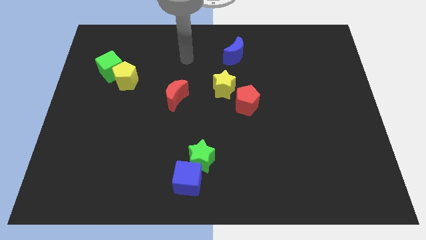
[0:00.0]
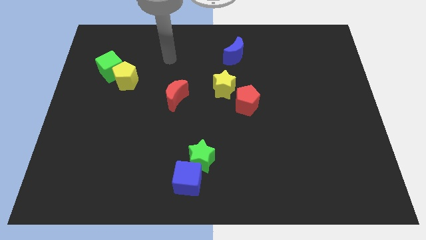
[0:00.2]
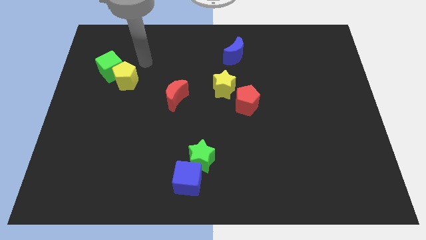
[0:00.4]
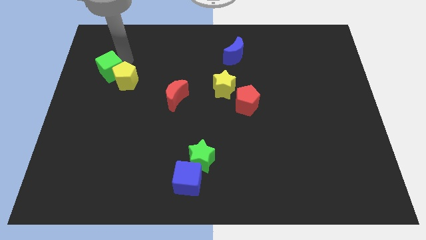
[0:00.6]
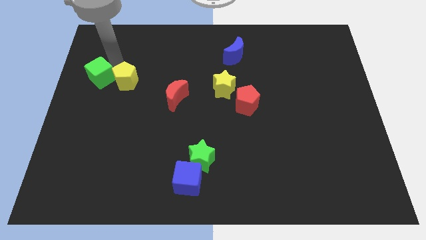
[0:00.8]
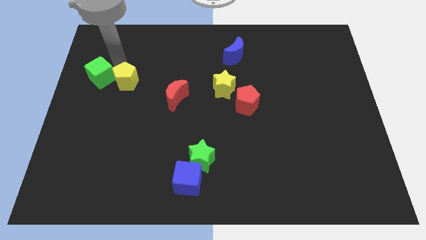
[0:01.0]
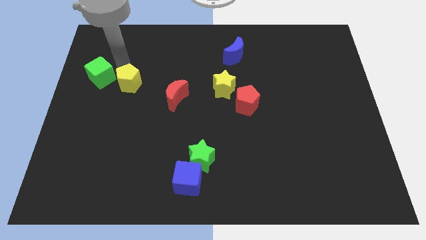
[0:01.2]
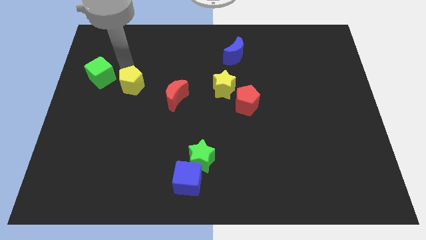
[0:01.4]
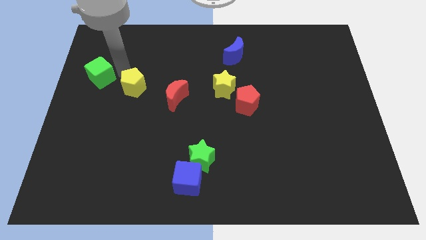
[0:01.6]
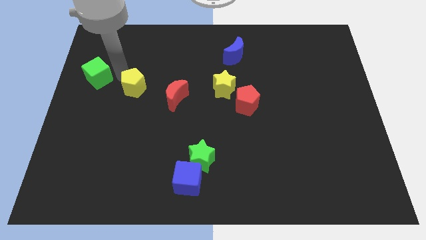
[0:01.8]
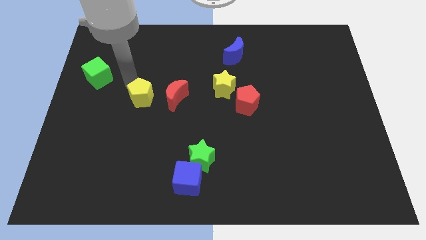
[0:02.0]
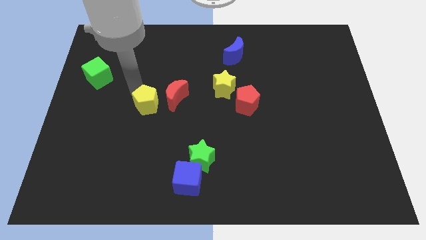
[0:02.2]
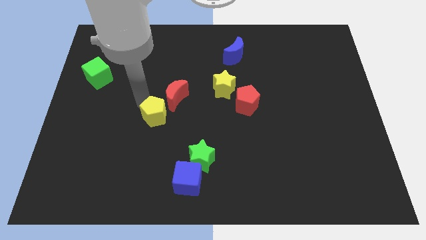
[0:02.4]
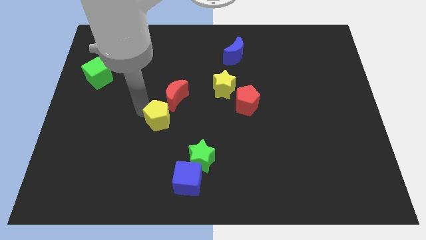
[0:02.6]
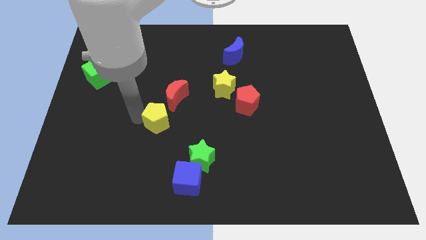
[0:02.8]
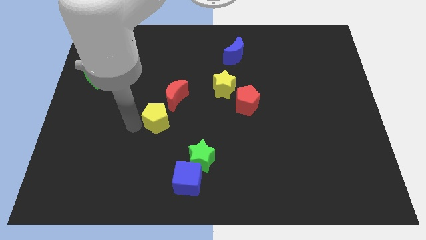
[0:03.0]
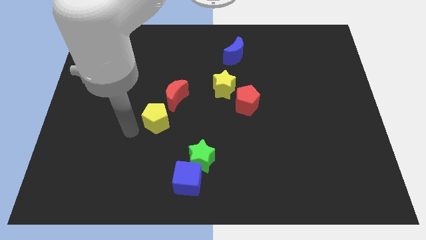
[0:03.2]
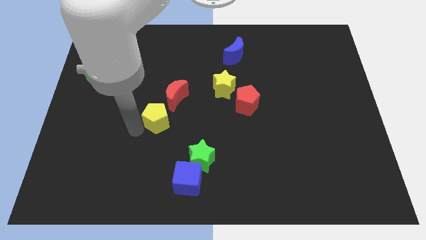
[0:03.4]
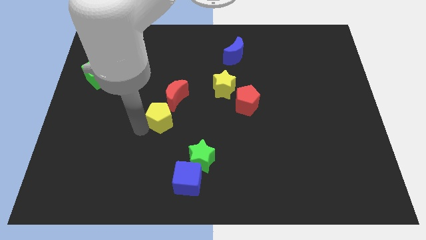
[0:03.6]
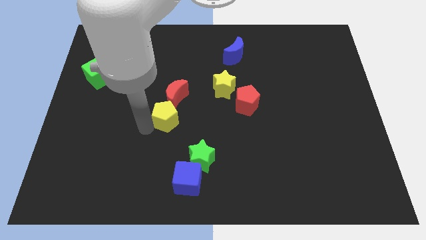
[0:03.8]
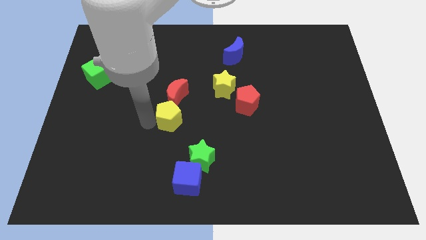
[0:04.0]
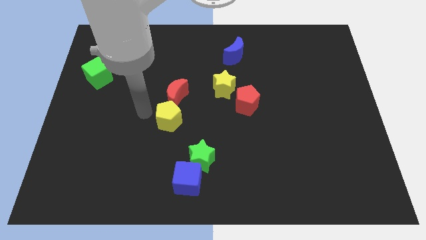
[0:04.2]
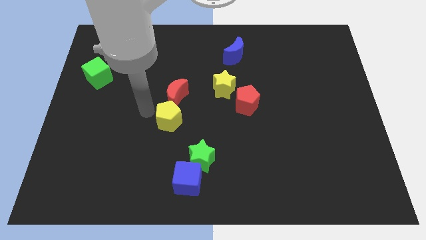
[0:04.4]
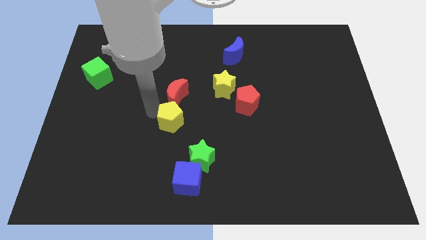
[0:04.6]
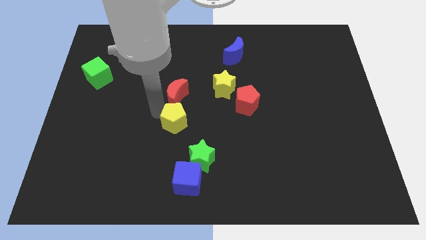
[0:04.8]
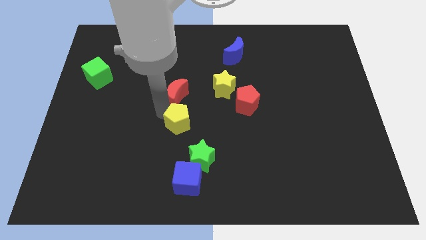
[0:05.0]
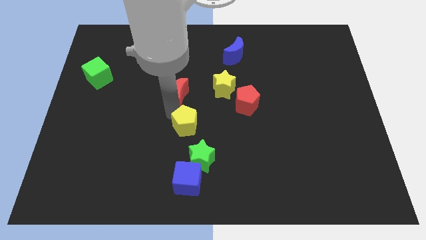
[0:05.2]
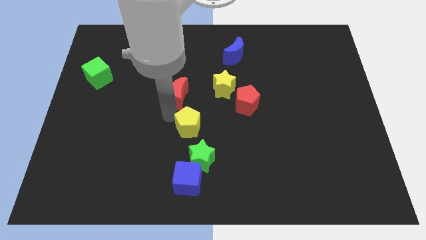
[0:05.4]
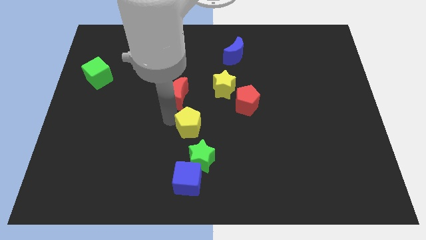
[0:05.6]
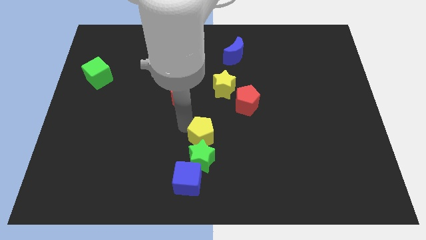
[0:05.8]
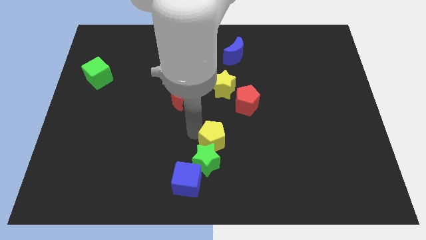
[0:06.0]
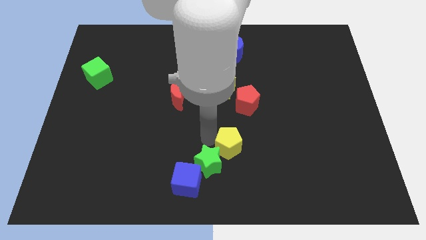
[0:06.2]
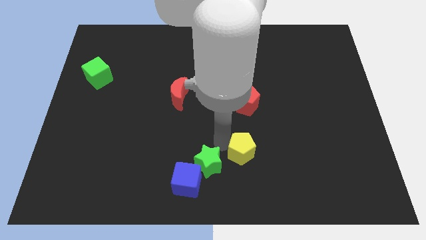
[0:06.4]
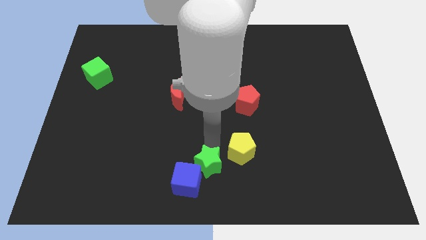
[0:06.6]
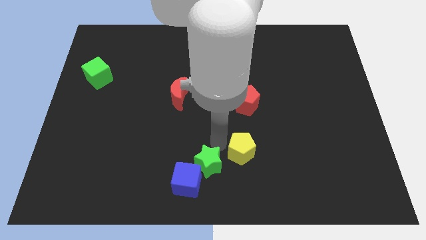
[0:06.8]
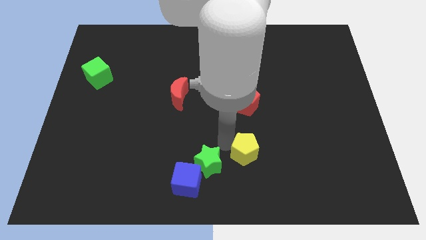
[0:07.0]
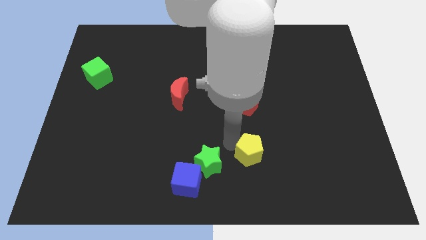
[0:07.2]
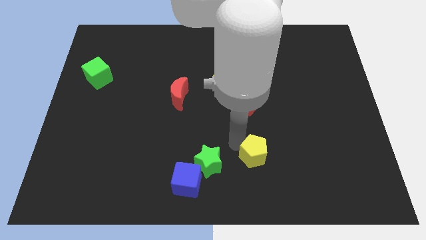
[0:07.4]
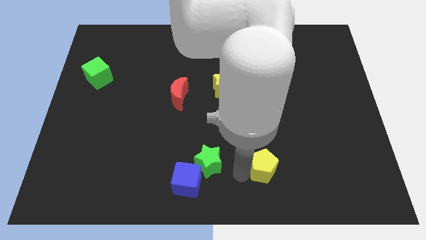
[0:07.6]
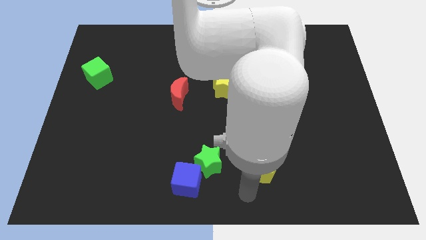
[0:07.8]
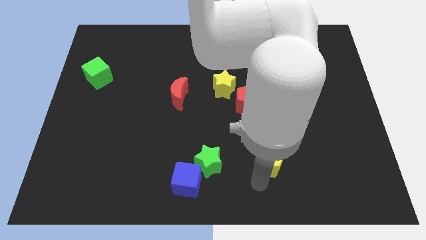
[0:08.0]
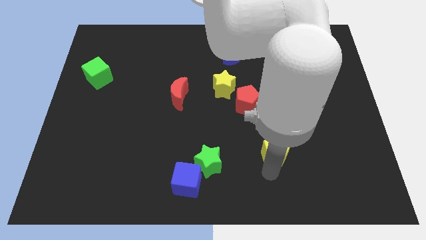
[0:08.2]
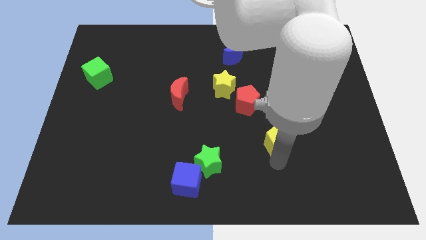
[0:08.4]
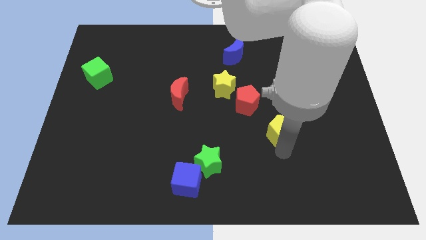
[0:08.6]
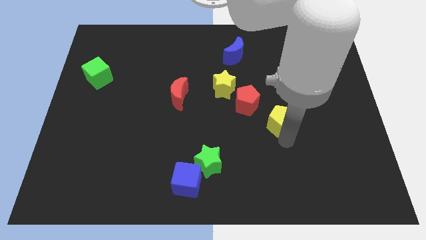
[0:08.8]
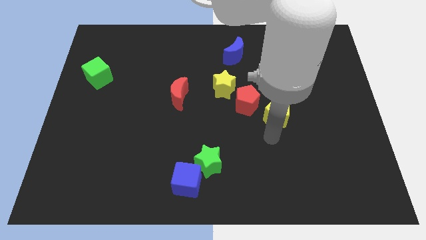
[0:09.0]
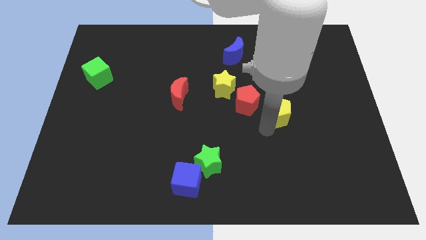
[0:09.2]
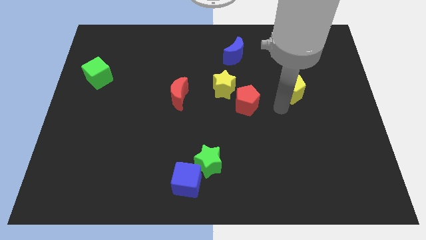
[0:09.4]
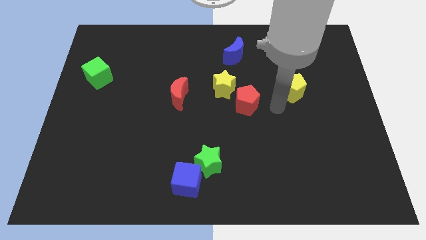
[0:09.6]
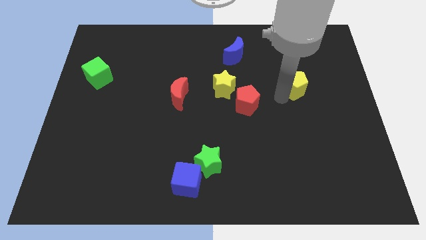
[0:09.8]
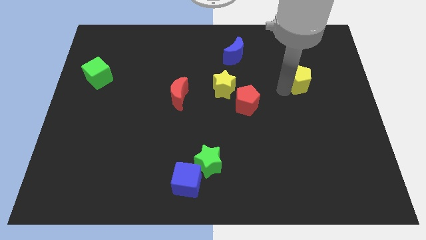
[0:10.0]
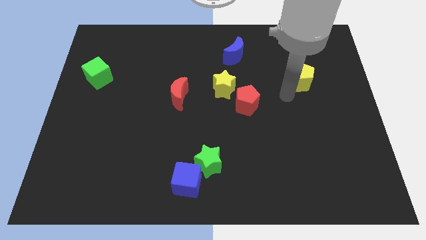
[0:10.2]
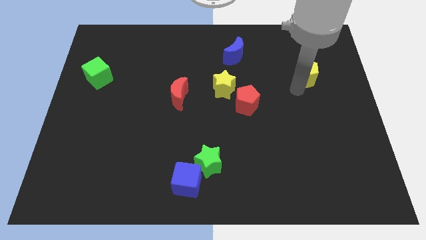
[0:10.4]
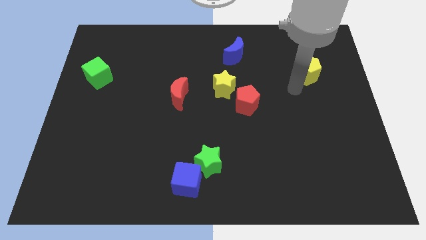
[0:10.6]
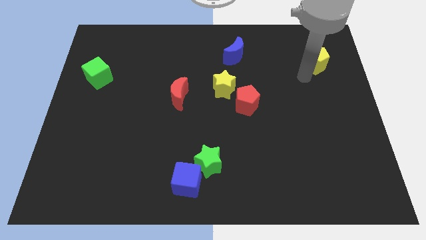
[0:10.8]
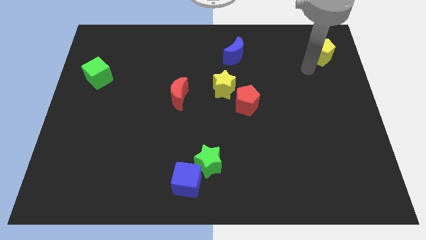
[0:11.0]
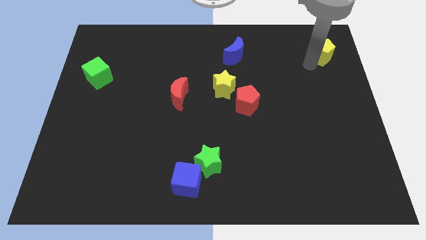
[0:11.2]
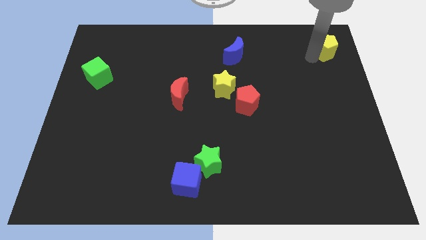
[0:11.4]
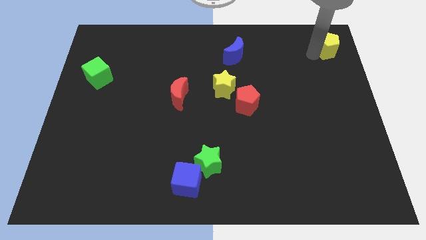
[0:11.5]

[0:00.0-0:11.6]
put the yellow pentagon to the top right

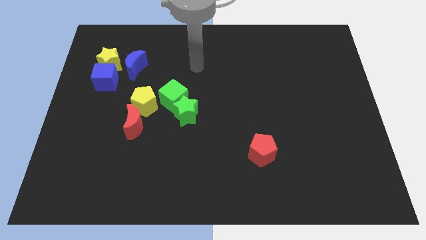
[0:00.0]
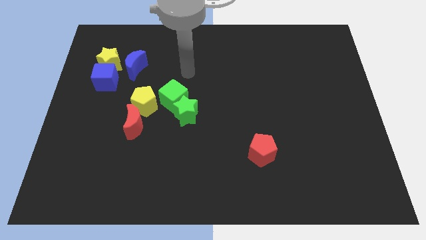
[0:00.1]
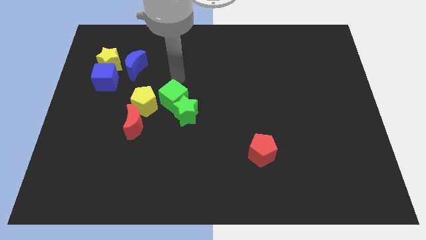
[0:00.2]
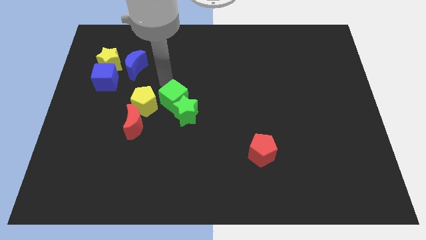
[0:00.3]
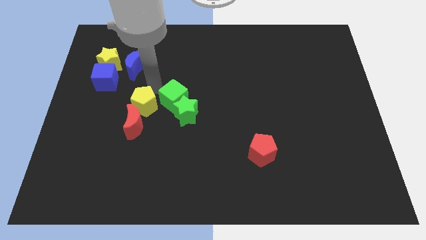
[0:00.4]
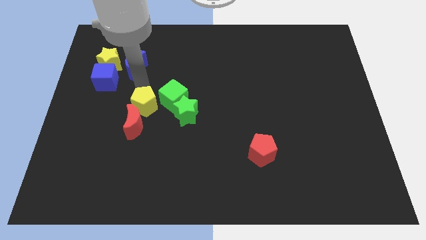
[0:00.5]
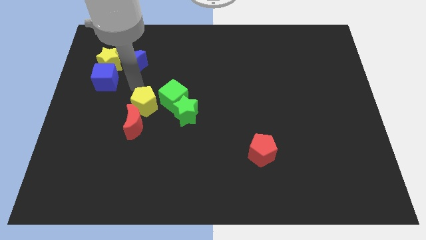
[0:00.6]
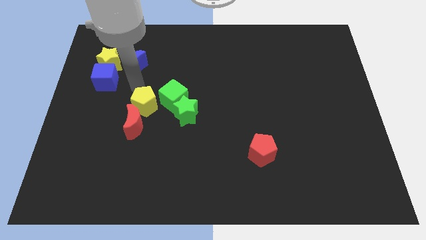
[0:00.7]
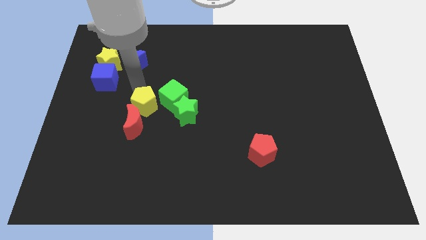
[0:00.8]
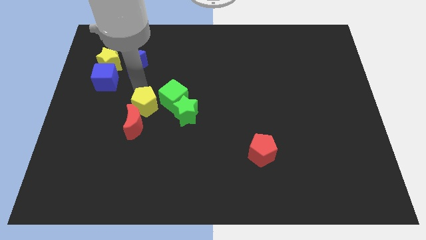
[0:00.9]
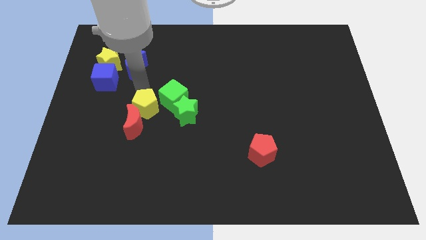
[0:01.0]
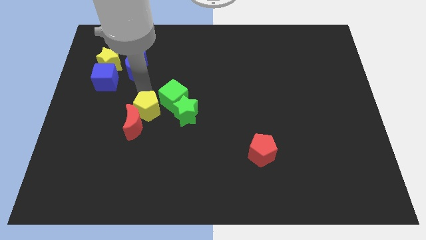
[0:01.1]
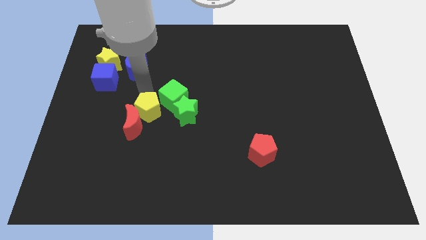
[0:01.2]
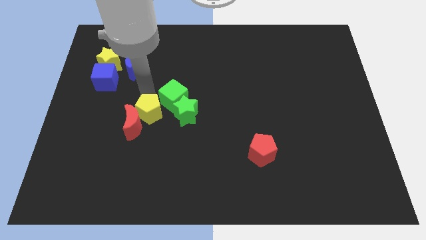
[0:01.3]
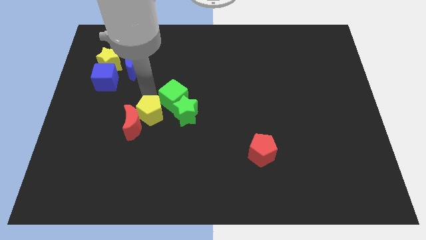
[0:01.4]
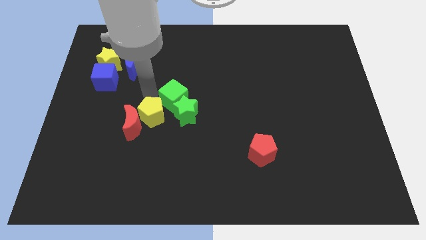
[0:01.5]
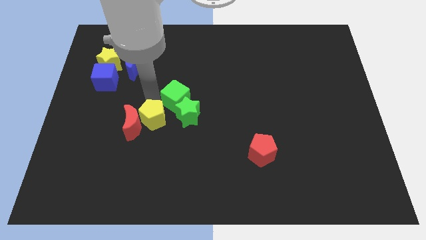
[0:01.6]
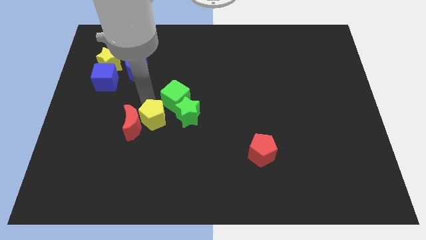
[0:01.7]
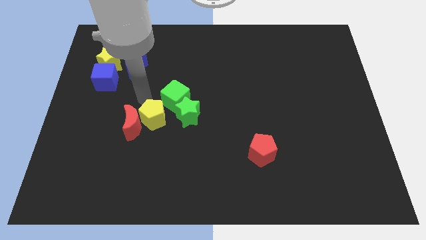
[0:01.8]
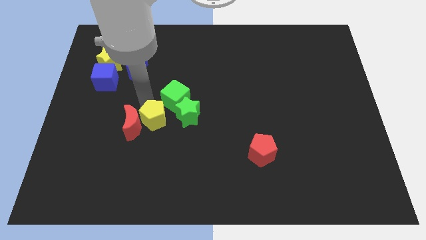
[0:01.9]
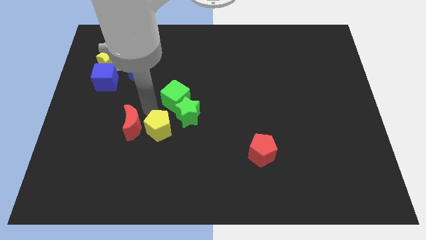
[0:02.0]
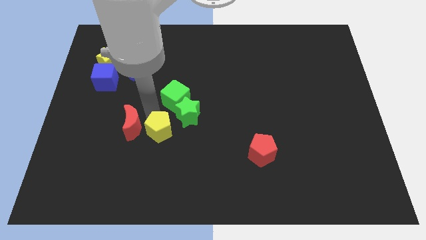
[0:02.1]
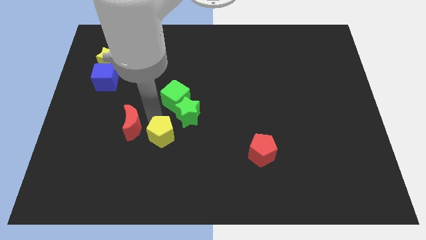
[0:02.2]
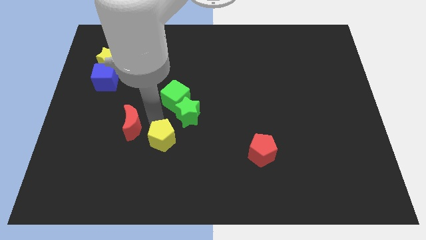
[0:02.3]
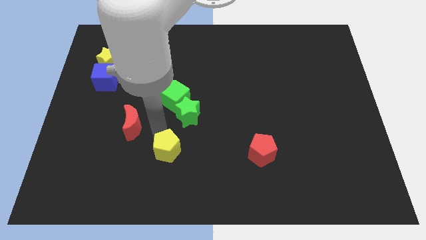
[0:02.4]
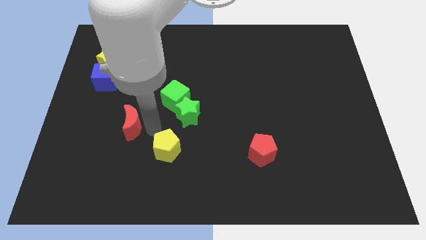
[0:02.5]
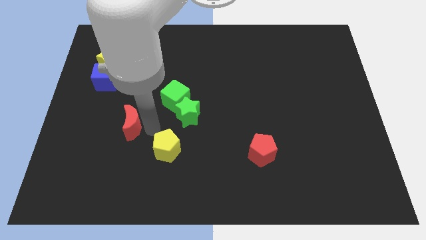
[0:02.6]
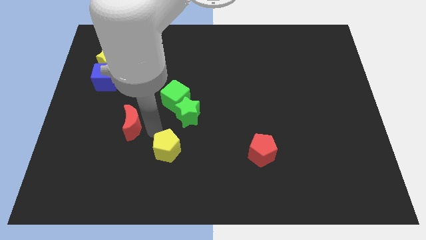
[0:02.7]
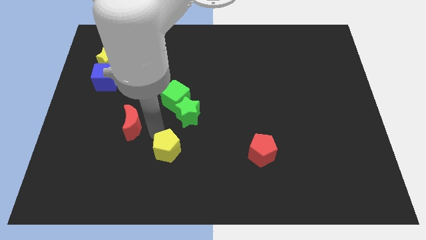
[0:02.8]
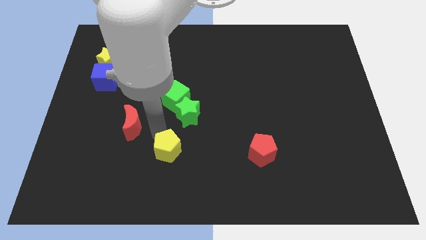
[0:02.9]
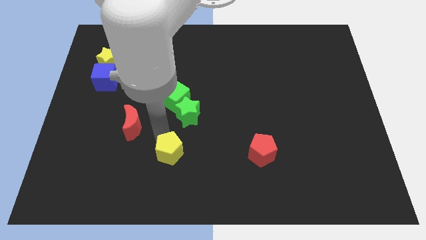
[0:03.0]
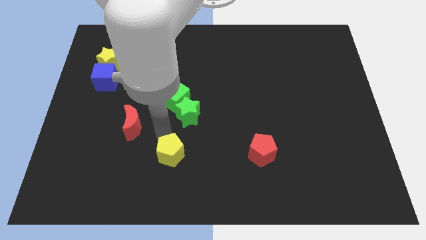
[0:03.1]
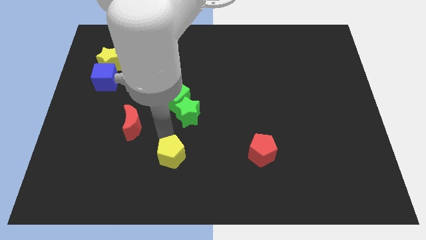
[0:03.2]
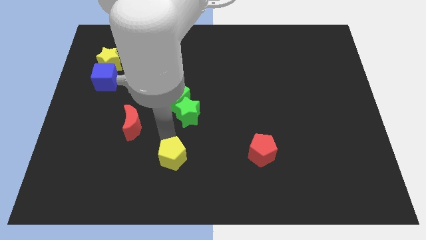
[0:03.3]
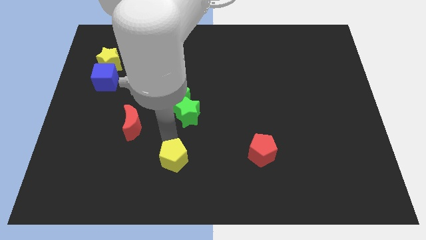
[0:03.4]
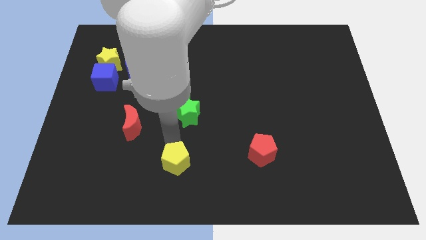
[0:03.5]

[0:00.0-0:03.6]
move the yellow pentagon to the bottom side
